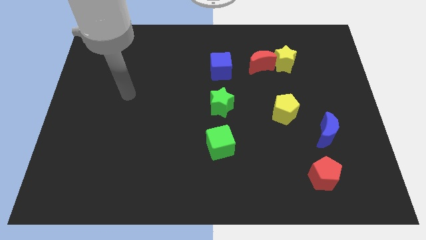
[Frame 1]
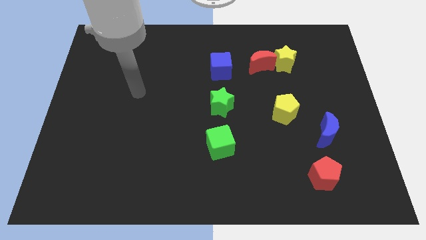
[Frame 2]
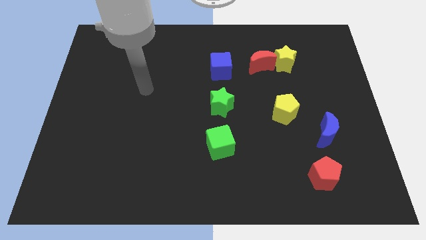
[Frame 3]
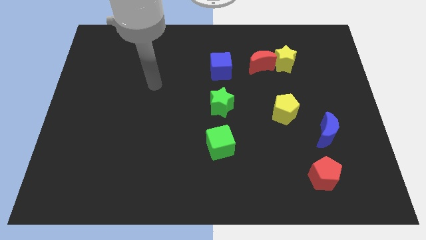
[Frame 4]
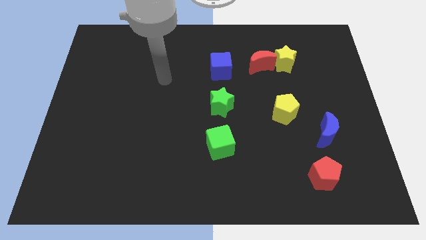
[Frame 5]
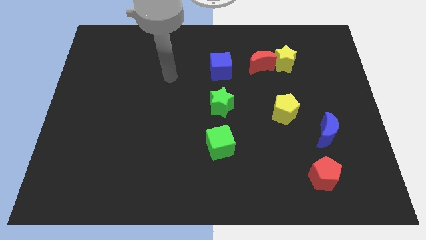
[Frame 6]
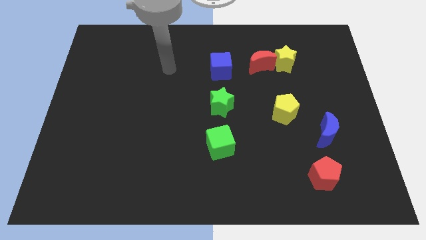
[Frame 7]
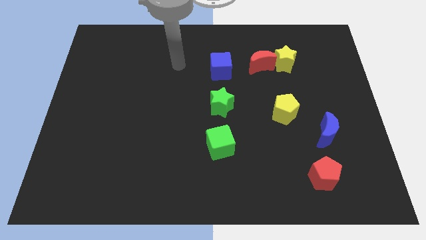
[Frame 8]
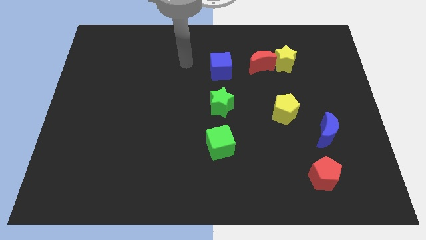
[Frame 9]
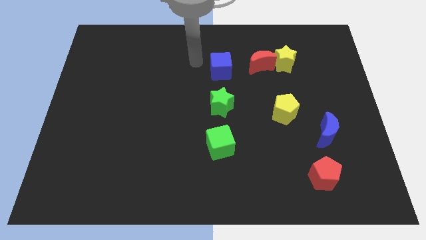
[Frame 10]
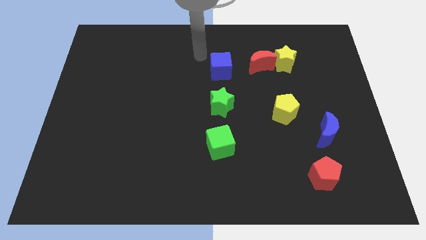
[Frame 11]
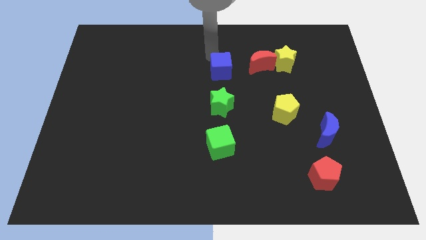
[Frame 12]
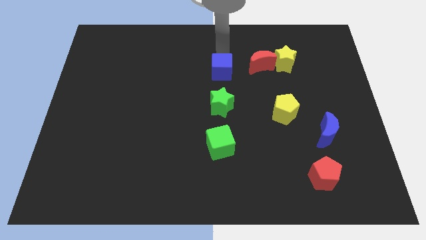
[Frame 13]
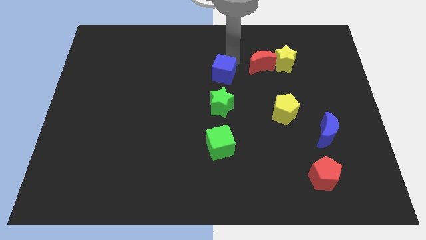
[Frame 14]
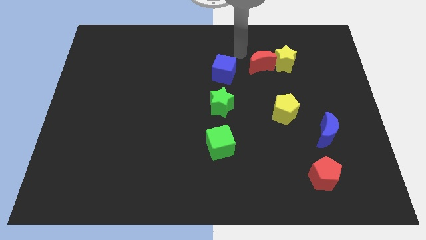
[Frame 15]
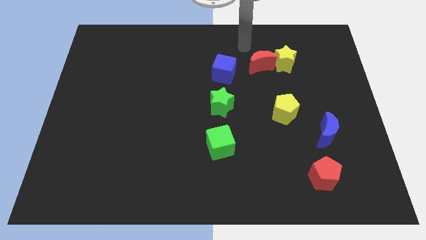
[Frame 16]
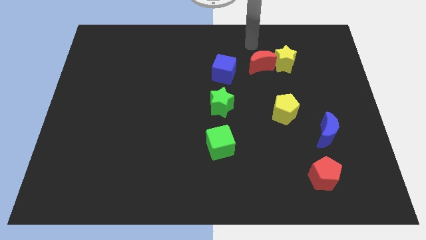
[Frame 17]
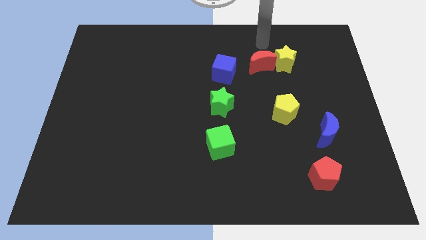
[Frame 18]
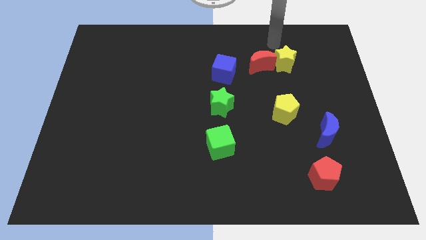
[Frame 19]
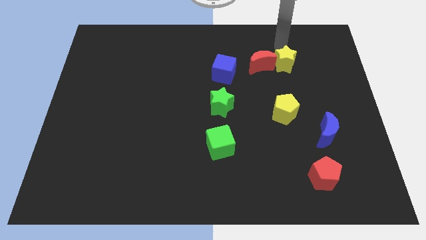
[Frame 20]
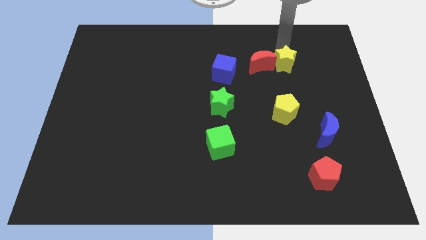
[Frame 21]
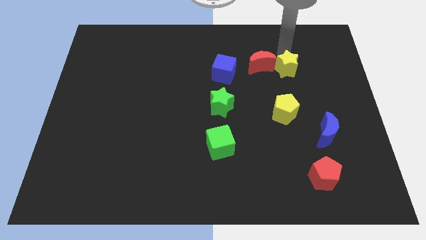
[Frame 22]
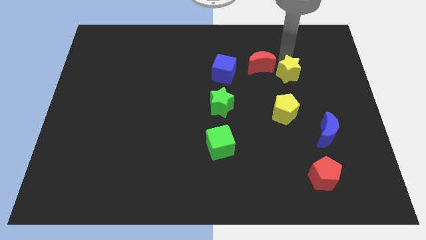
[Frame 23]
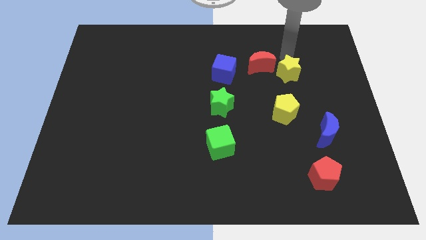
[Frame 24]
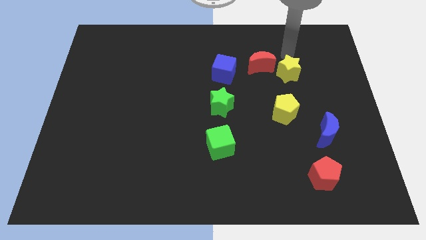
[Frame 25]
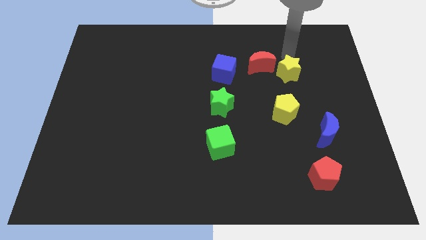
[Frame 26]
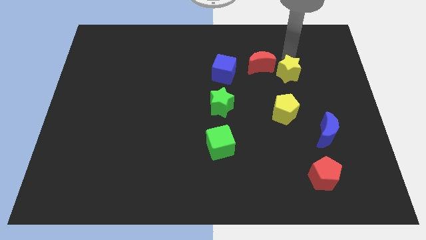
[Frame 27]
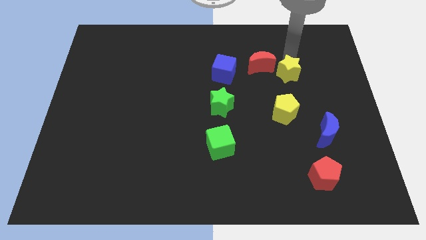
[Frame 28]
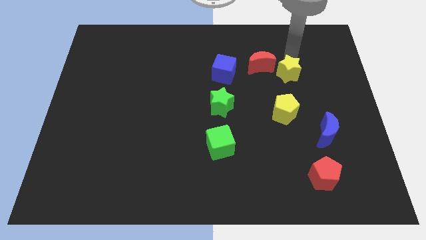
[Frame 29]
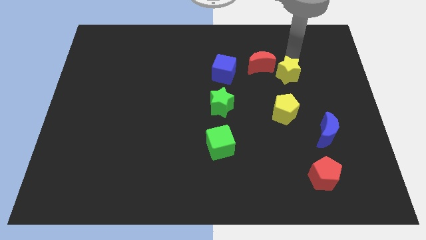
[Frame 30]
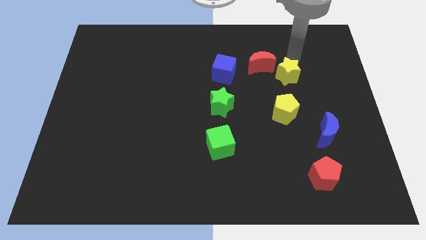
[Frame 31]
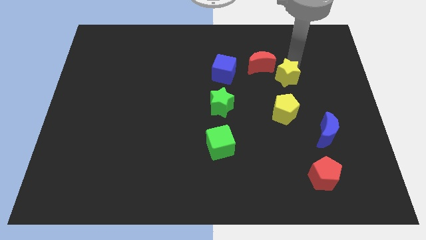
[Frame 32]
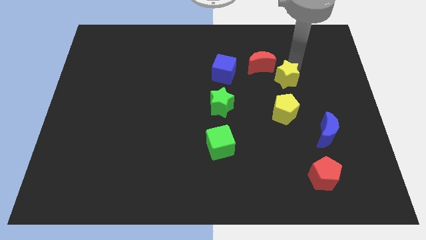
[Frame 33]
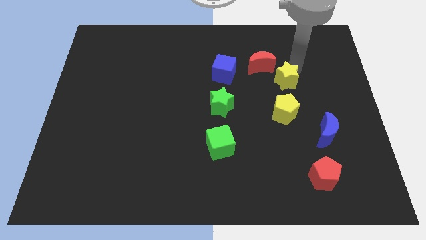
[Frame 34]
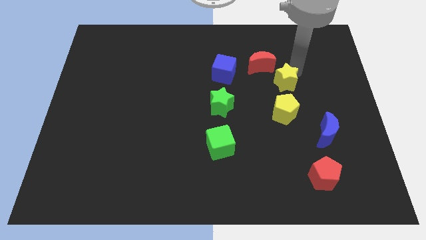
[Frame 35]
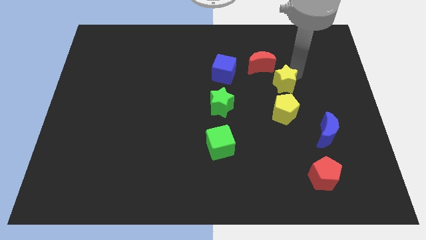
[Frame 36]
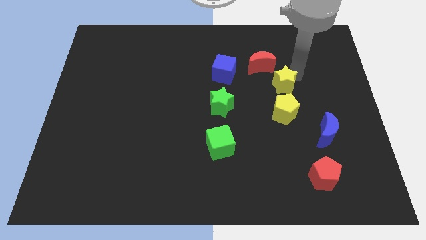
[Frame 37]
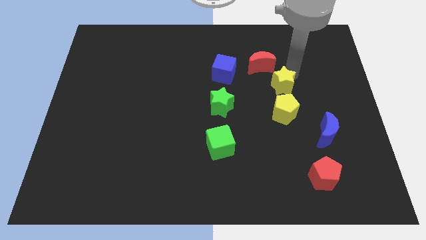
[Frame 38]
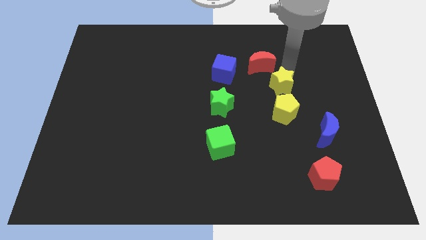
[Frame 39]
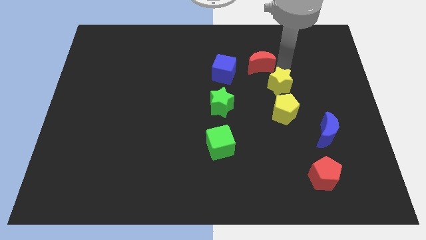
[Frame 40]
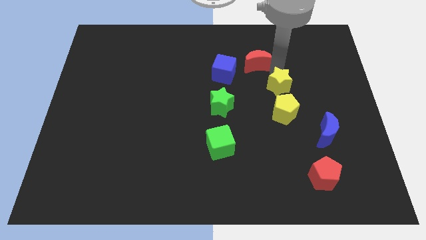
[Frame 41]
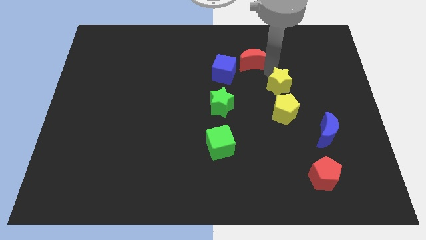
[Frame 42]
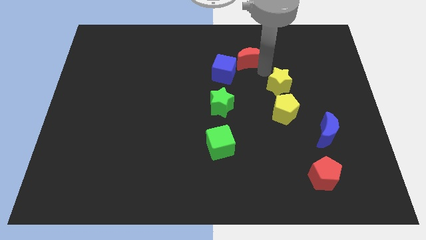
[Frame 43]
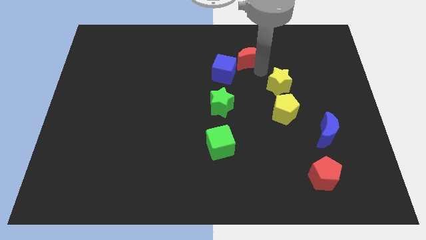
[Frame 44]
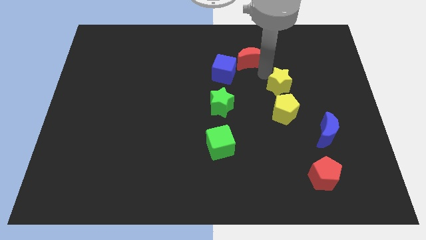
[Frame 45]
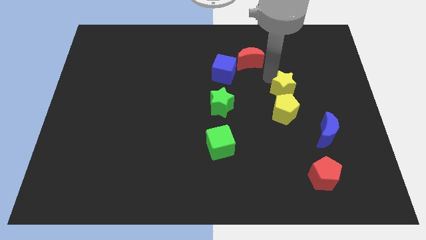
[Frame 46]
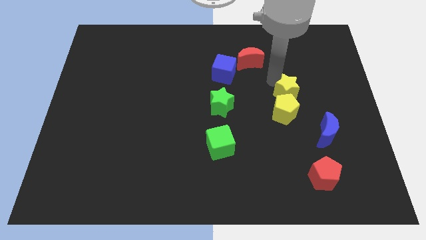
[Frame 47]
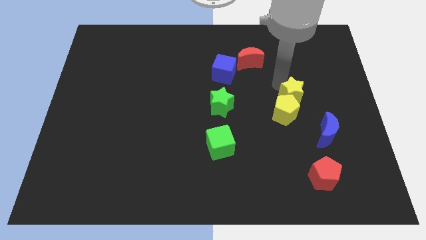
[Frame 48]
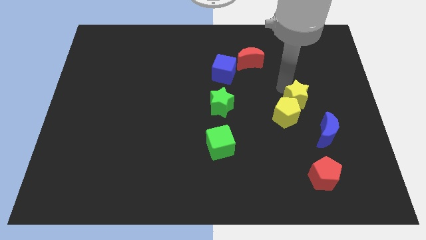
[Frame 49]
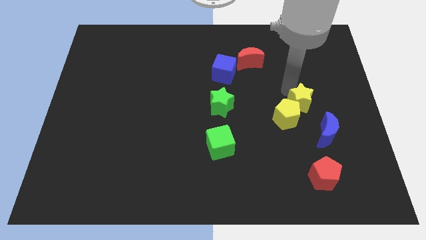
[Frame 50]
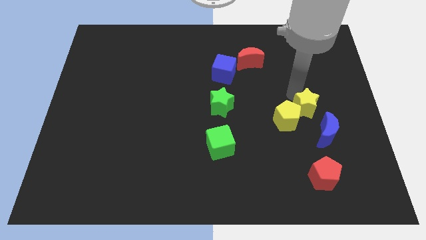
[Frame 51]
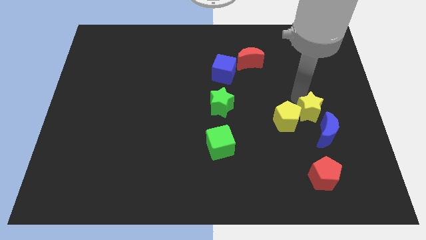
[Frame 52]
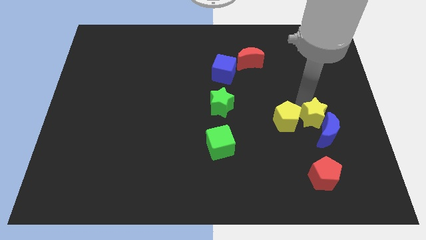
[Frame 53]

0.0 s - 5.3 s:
push the yellow star next to the blue moon

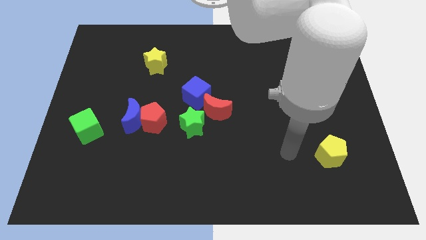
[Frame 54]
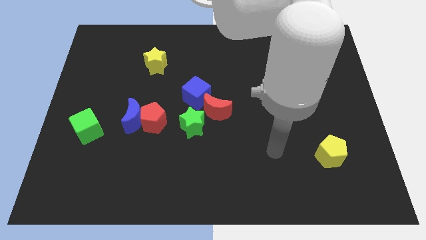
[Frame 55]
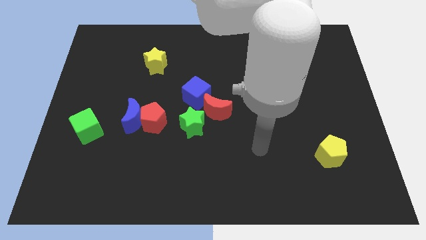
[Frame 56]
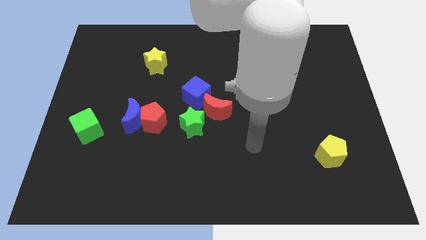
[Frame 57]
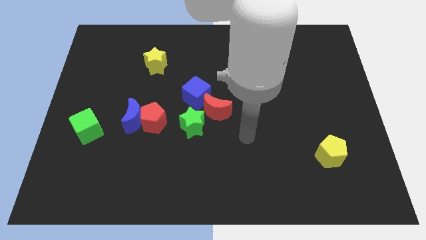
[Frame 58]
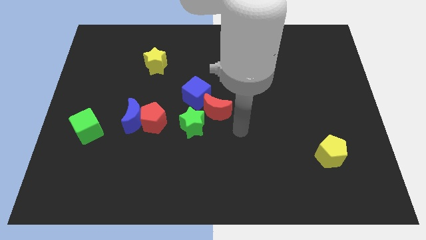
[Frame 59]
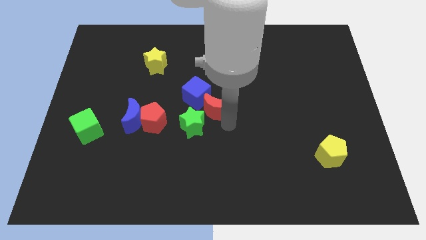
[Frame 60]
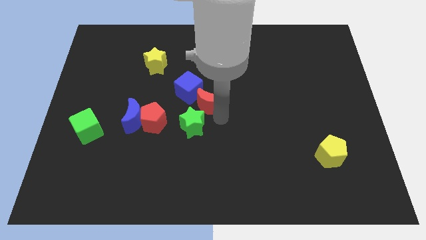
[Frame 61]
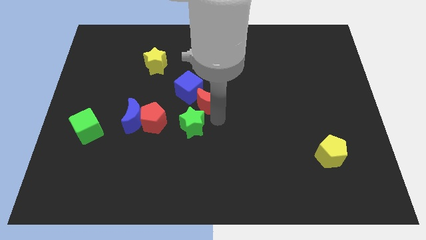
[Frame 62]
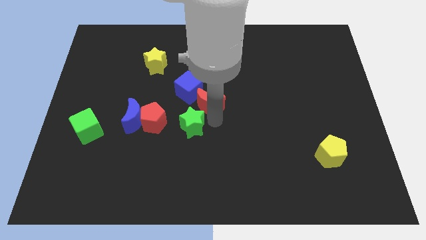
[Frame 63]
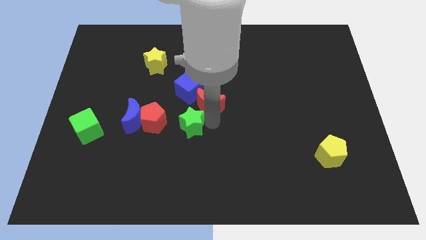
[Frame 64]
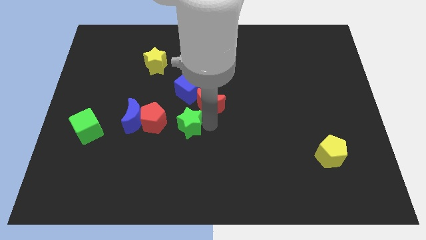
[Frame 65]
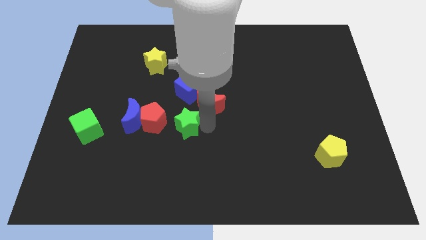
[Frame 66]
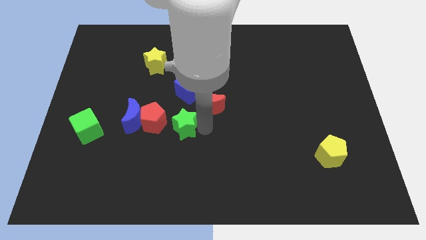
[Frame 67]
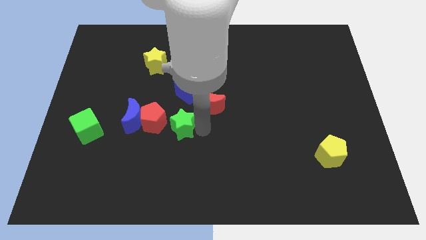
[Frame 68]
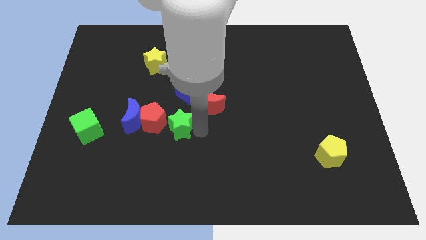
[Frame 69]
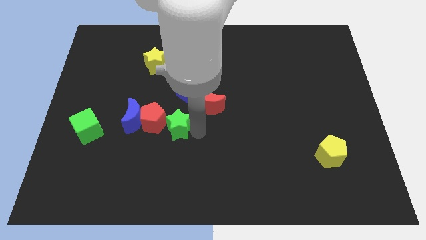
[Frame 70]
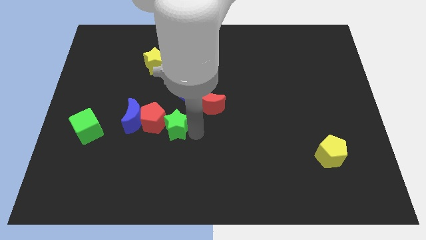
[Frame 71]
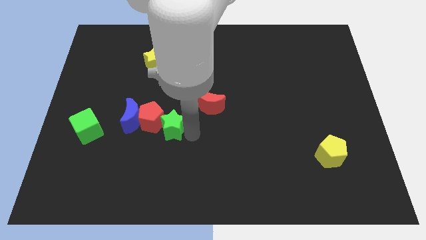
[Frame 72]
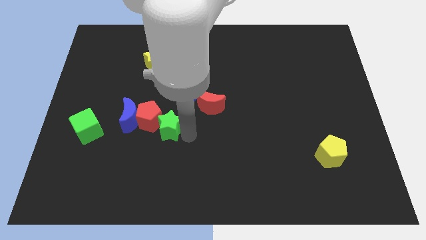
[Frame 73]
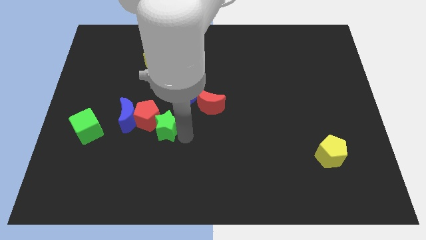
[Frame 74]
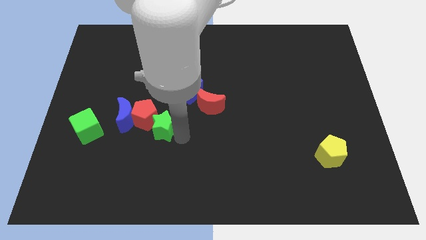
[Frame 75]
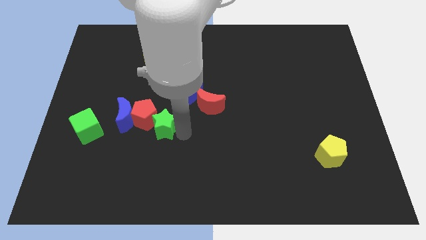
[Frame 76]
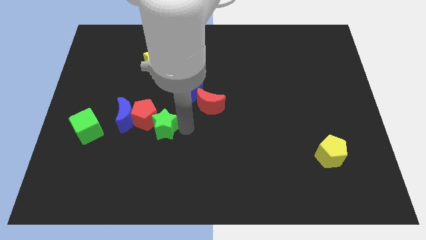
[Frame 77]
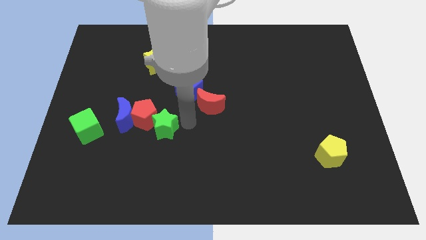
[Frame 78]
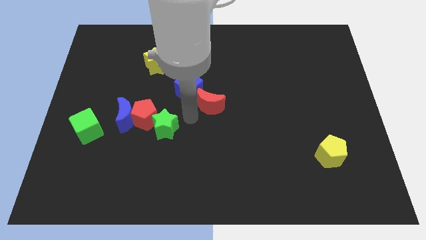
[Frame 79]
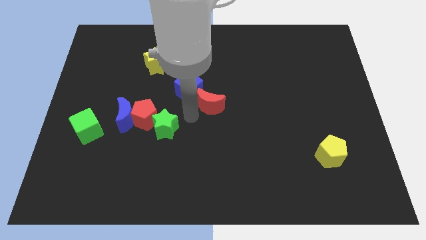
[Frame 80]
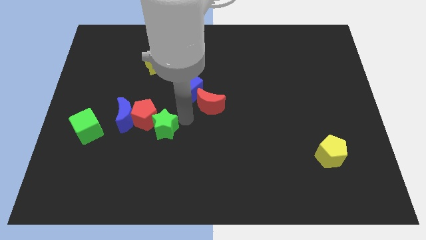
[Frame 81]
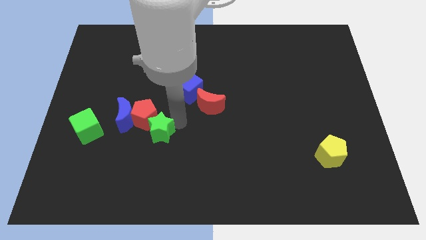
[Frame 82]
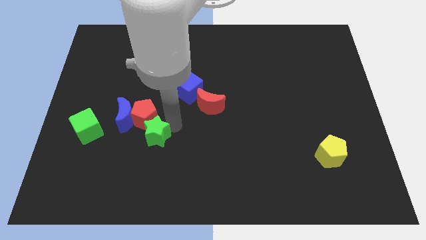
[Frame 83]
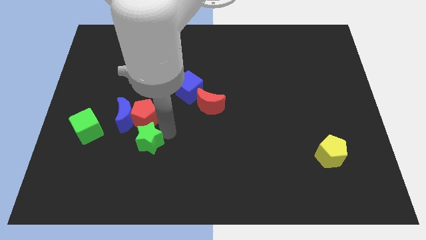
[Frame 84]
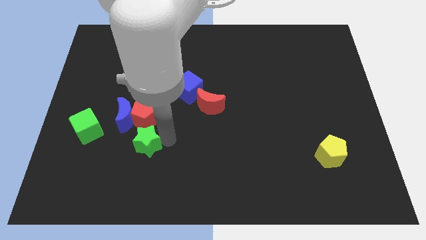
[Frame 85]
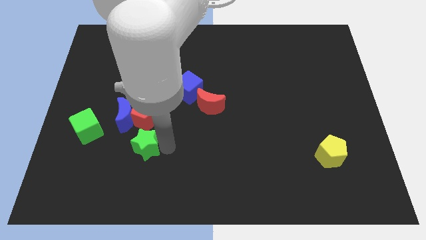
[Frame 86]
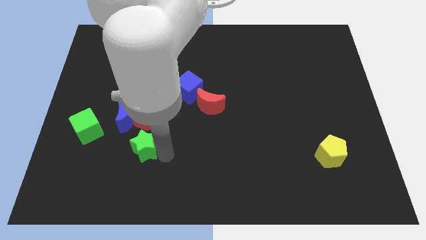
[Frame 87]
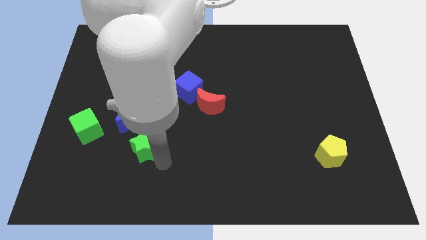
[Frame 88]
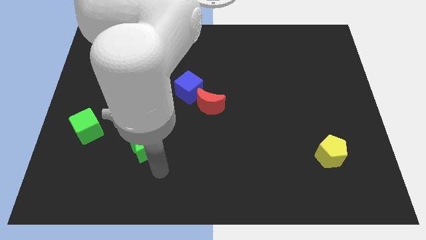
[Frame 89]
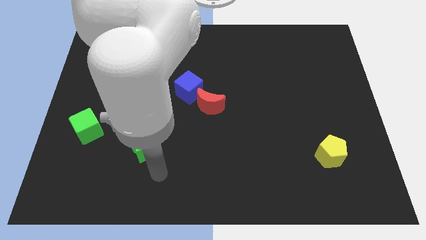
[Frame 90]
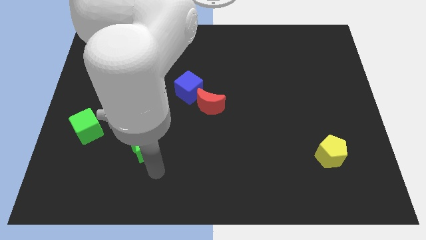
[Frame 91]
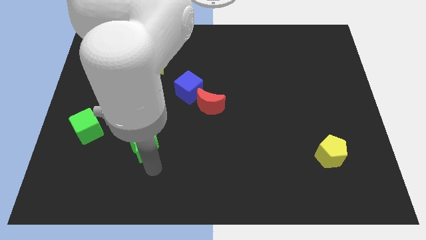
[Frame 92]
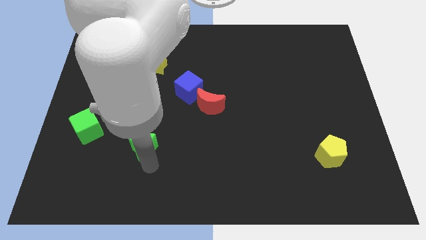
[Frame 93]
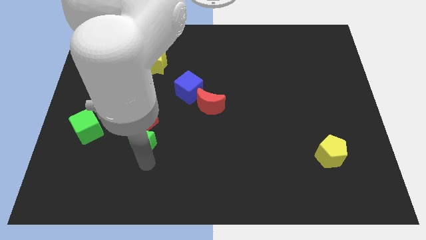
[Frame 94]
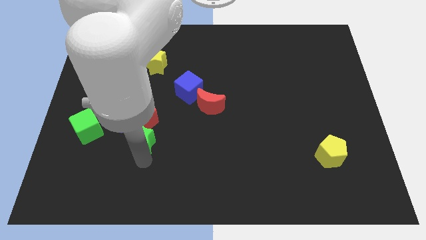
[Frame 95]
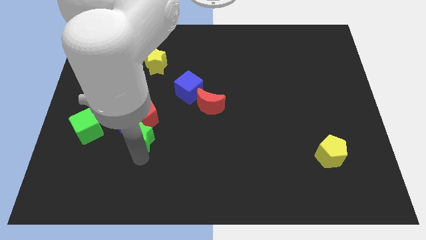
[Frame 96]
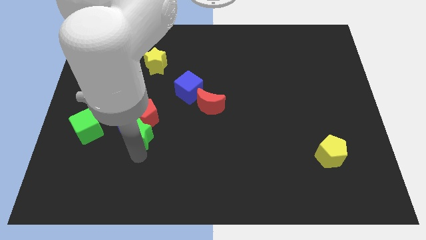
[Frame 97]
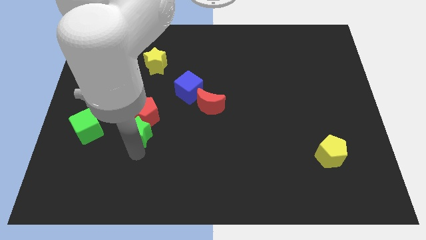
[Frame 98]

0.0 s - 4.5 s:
put the green star close to the blue moon
